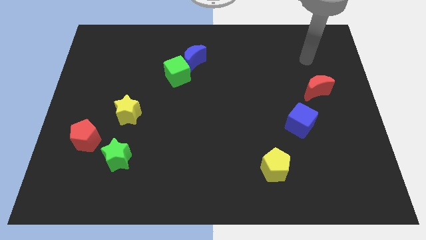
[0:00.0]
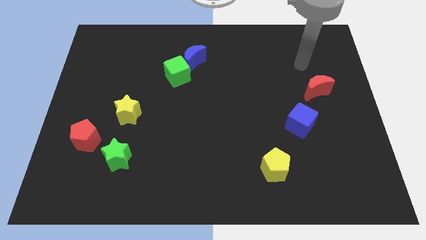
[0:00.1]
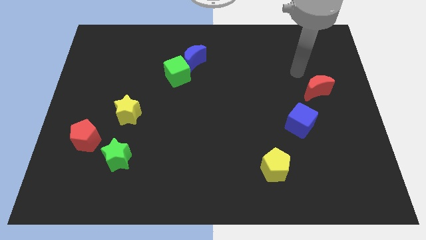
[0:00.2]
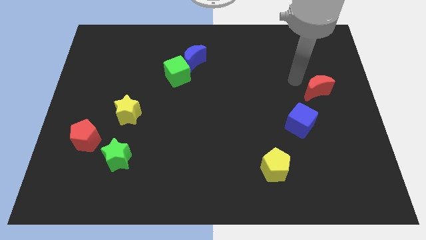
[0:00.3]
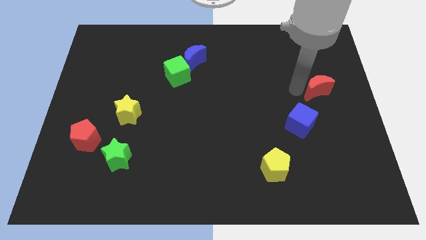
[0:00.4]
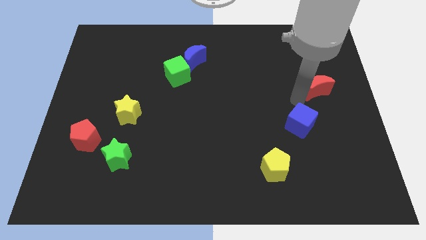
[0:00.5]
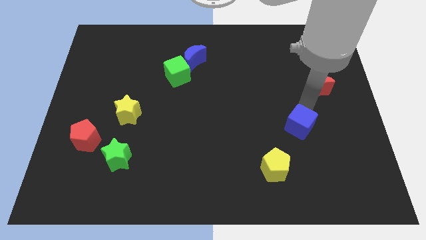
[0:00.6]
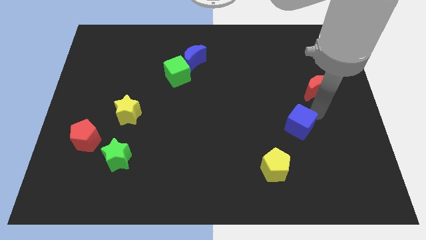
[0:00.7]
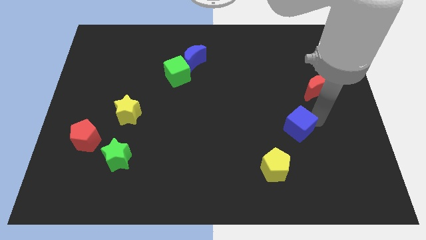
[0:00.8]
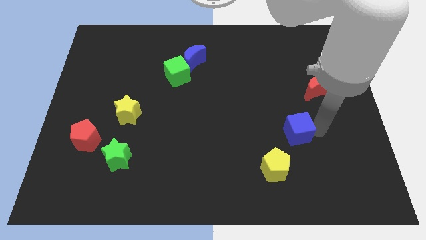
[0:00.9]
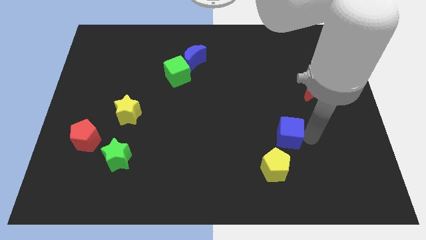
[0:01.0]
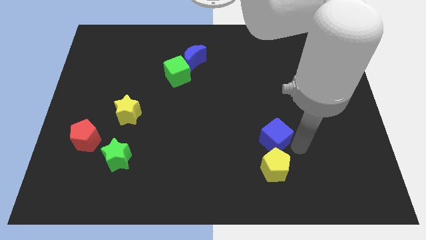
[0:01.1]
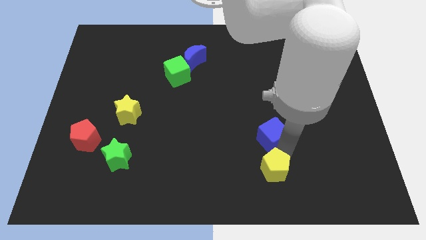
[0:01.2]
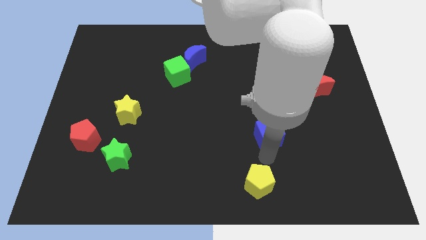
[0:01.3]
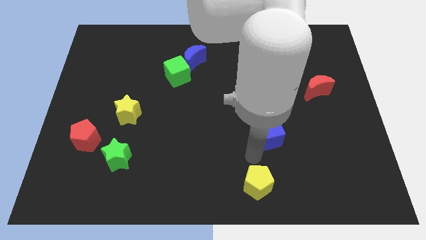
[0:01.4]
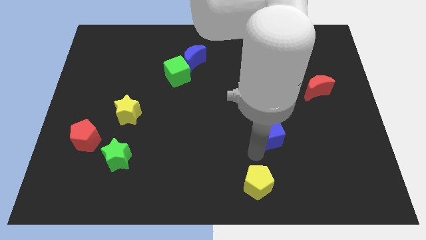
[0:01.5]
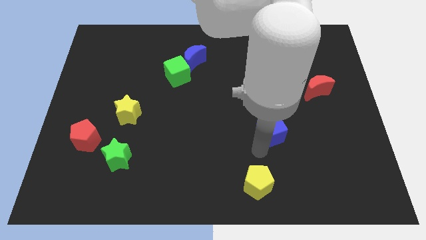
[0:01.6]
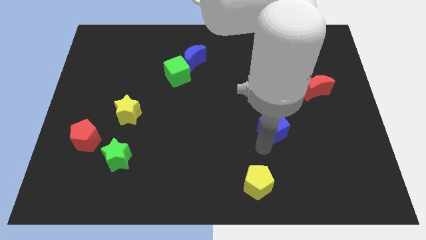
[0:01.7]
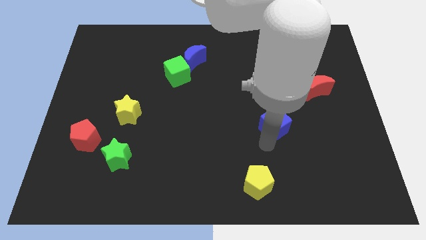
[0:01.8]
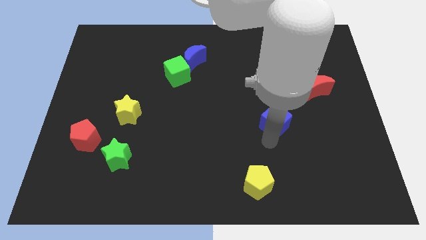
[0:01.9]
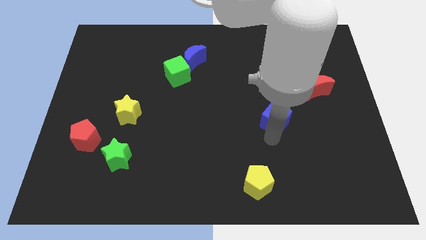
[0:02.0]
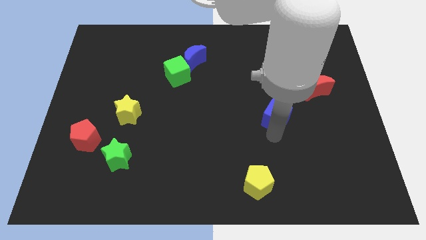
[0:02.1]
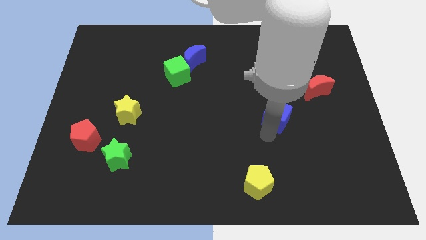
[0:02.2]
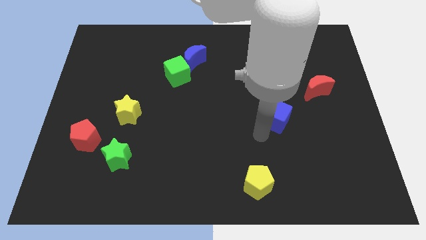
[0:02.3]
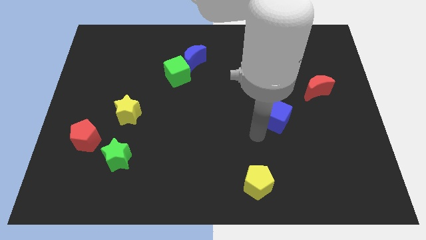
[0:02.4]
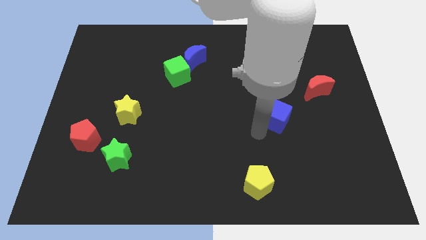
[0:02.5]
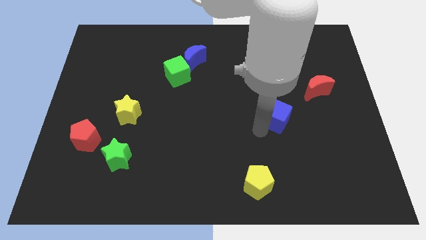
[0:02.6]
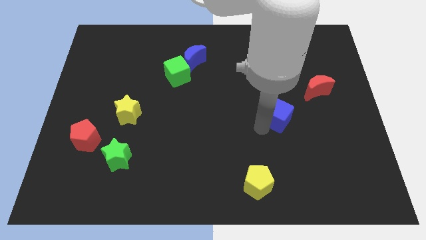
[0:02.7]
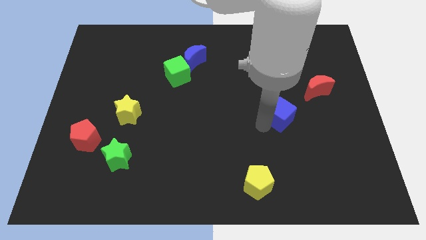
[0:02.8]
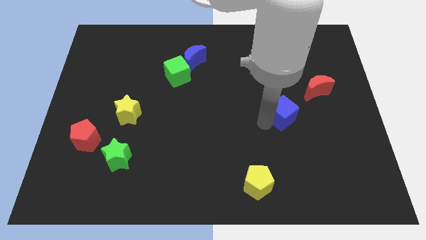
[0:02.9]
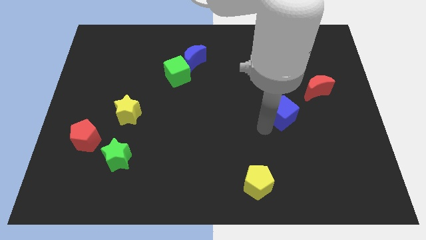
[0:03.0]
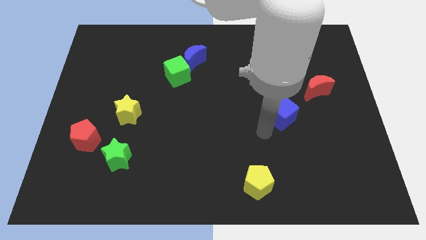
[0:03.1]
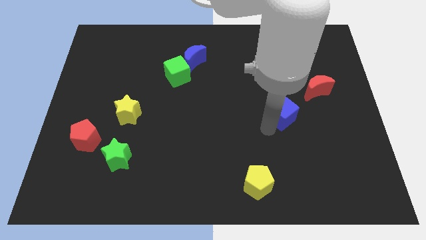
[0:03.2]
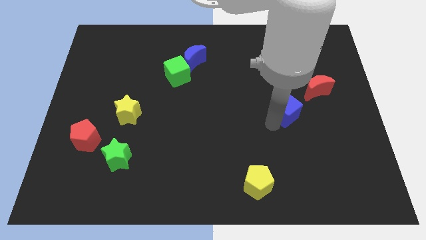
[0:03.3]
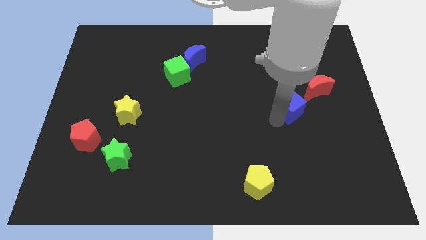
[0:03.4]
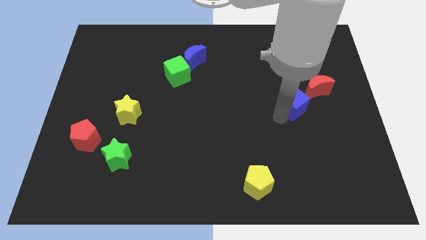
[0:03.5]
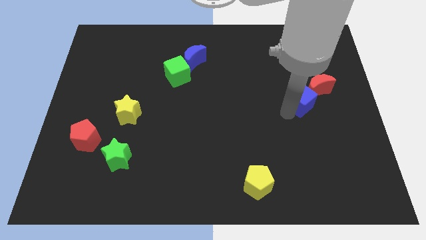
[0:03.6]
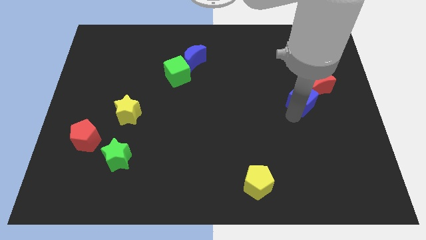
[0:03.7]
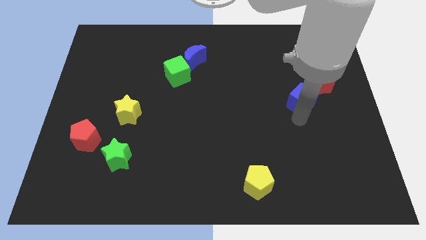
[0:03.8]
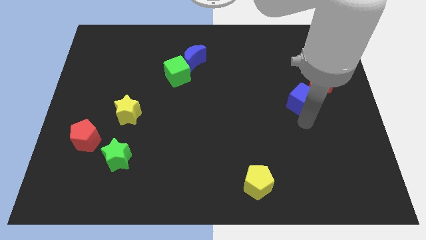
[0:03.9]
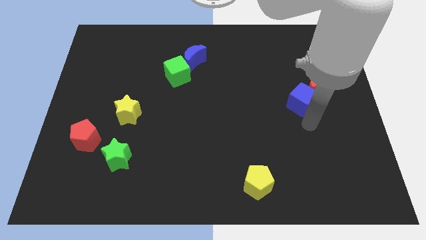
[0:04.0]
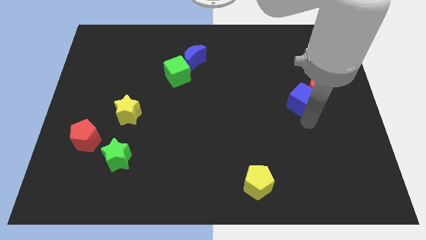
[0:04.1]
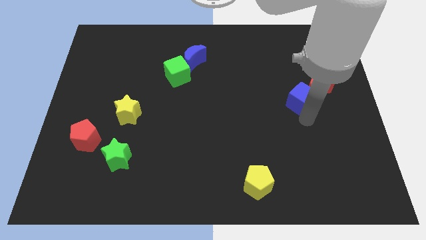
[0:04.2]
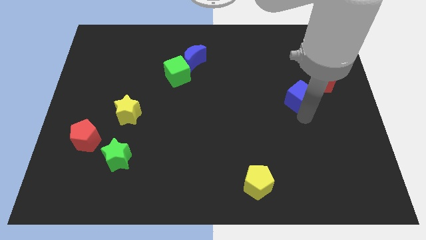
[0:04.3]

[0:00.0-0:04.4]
slightly push the blue cube upwards

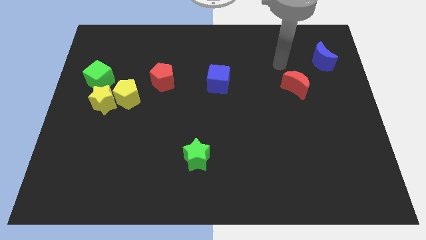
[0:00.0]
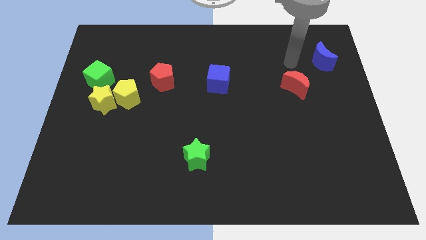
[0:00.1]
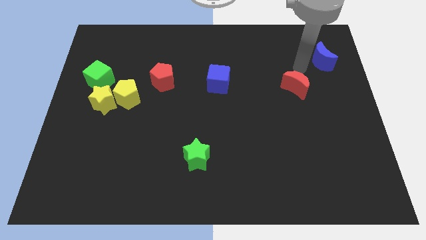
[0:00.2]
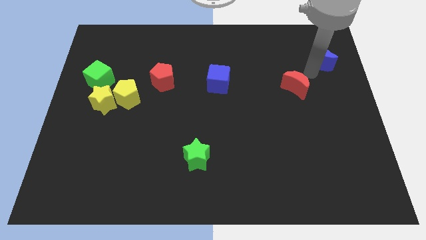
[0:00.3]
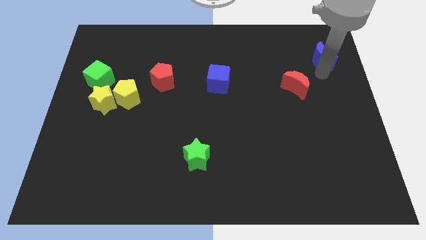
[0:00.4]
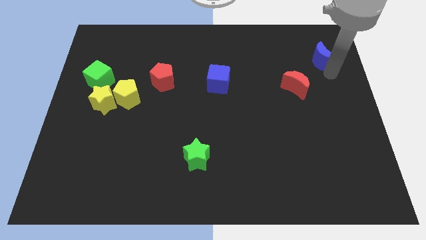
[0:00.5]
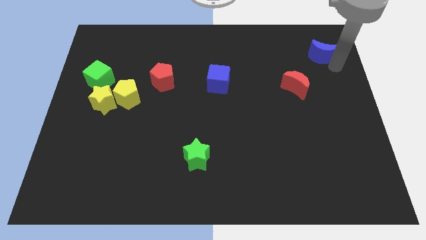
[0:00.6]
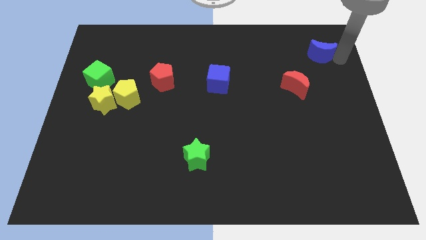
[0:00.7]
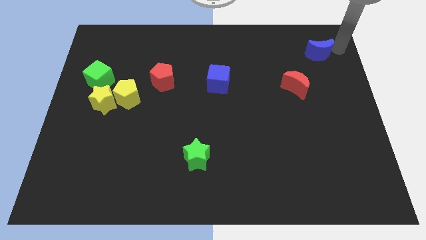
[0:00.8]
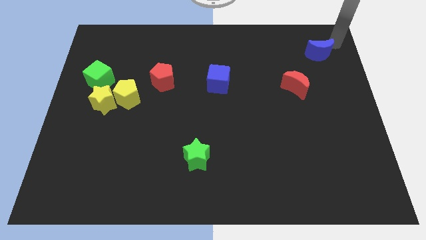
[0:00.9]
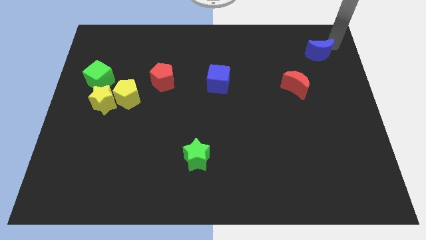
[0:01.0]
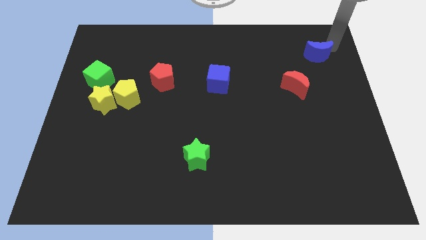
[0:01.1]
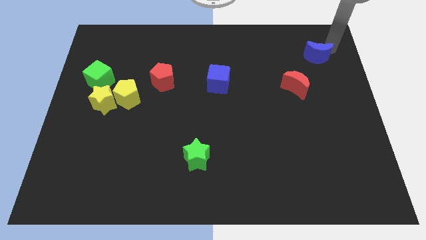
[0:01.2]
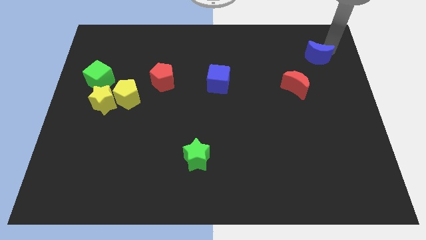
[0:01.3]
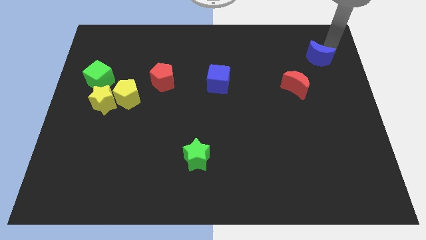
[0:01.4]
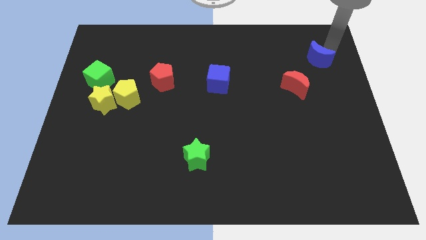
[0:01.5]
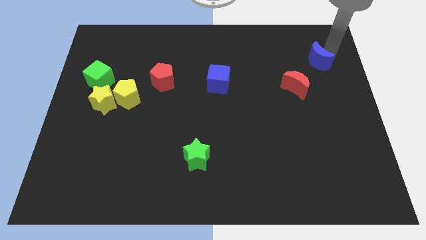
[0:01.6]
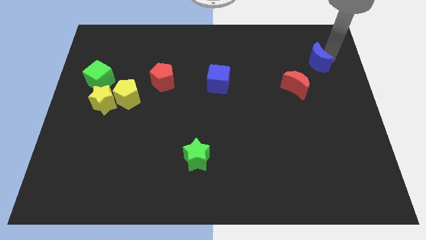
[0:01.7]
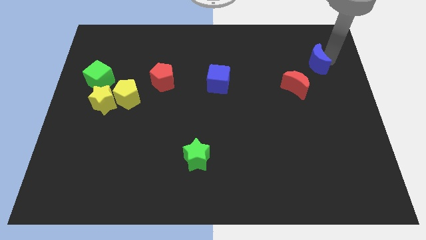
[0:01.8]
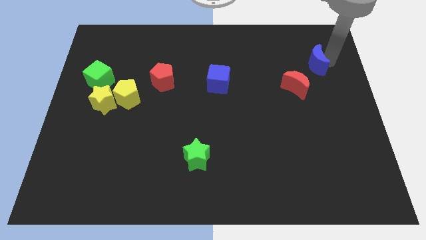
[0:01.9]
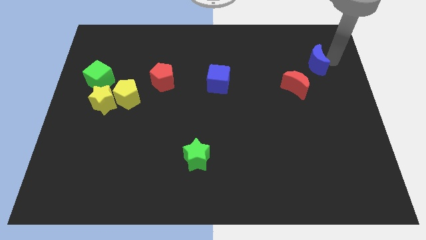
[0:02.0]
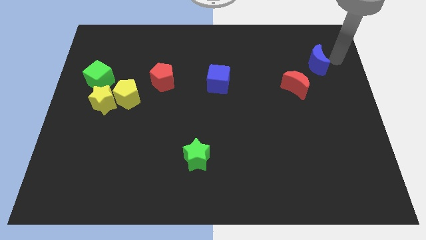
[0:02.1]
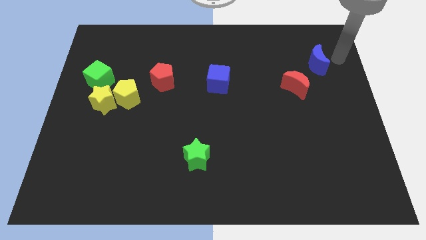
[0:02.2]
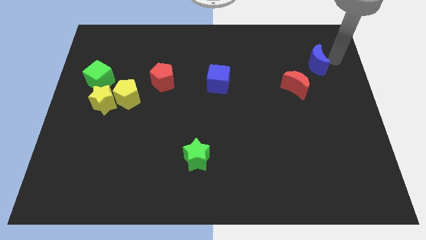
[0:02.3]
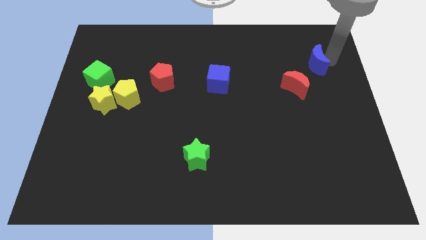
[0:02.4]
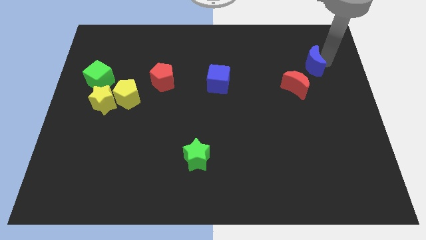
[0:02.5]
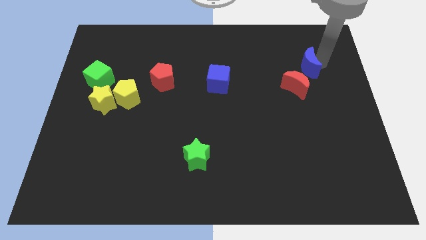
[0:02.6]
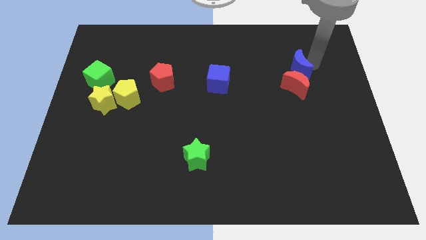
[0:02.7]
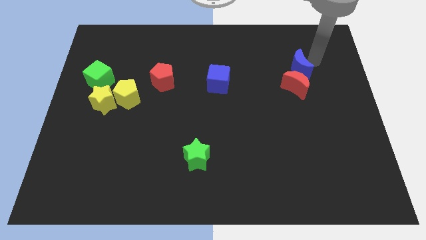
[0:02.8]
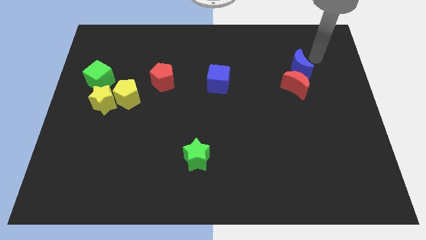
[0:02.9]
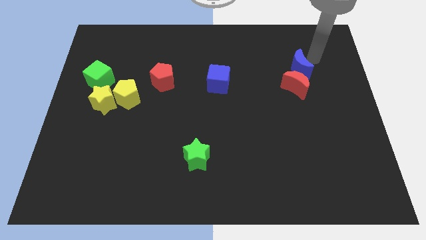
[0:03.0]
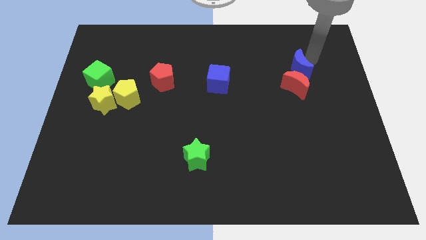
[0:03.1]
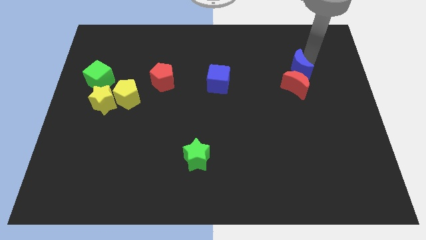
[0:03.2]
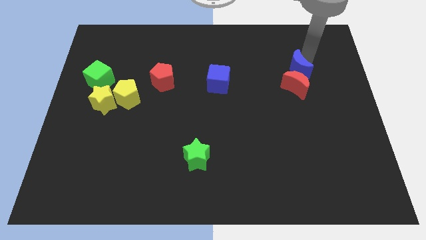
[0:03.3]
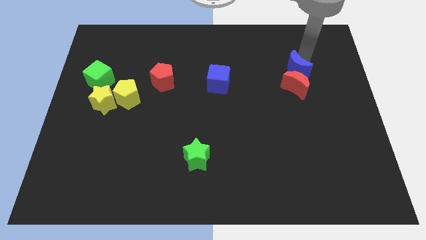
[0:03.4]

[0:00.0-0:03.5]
move the blue moon diagonally down and to the left slightly
